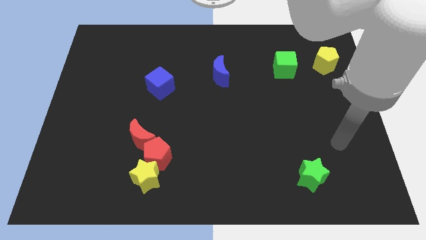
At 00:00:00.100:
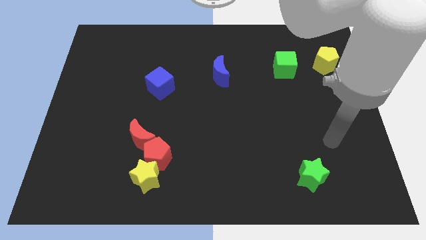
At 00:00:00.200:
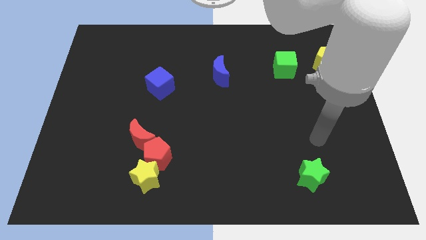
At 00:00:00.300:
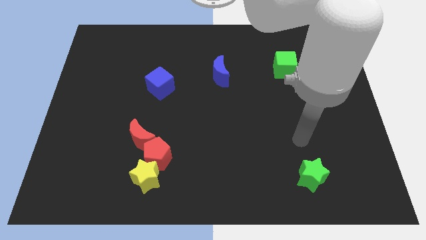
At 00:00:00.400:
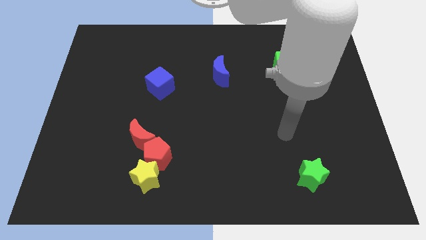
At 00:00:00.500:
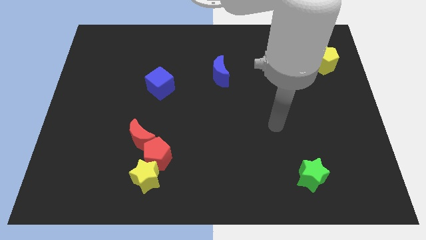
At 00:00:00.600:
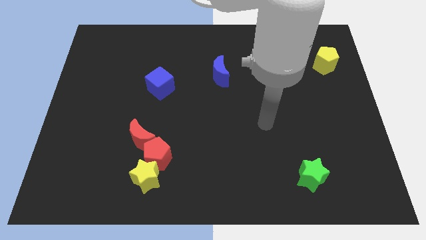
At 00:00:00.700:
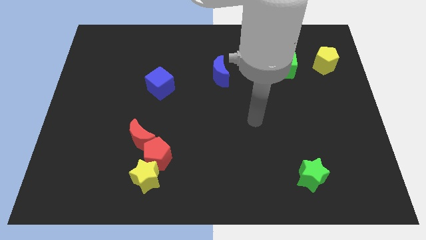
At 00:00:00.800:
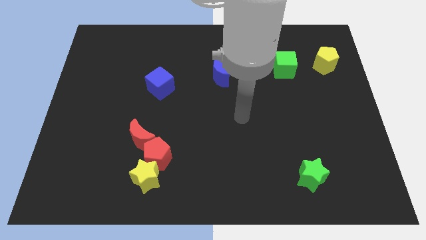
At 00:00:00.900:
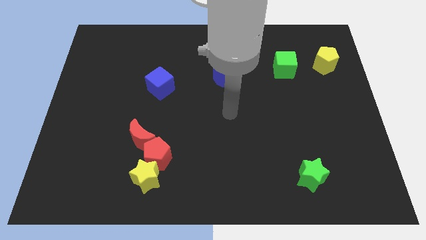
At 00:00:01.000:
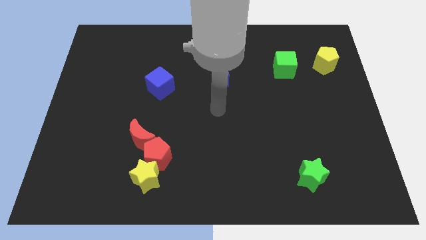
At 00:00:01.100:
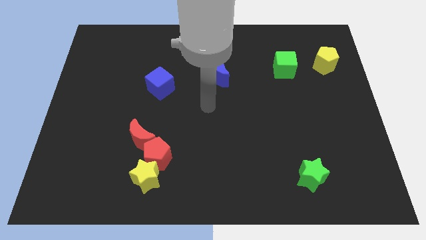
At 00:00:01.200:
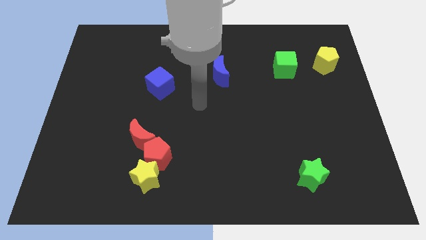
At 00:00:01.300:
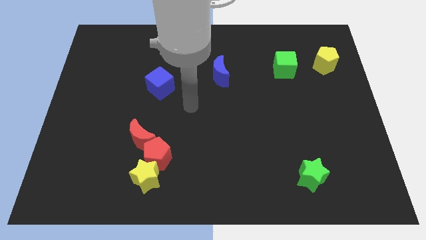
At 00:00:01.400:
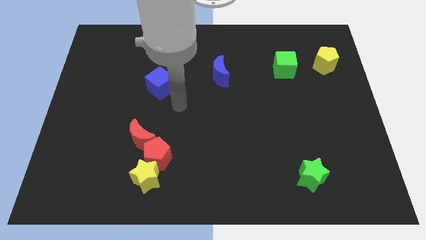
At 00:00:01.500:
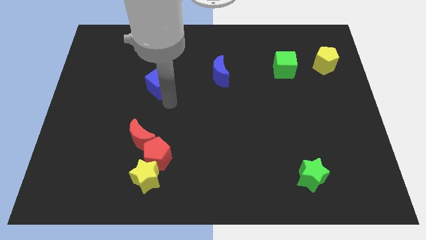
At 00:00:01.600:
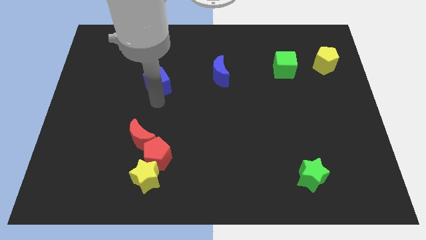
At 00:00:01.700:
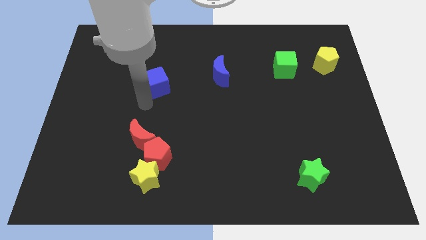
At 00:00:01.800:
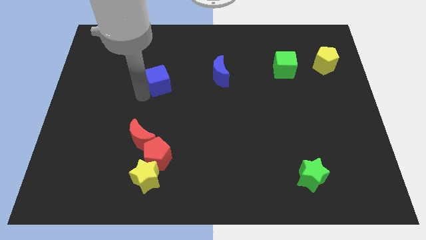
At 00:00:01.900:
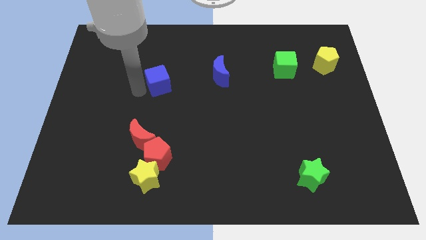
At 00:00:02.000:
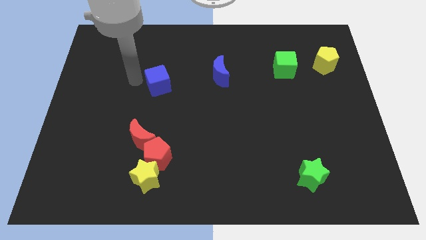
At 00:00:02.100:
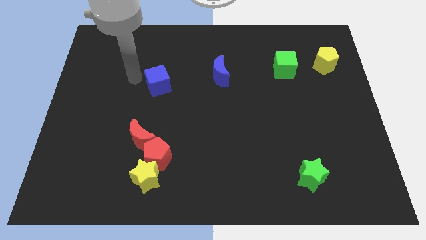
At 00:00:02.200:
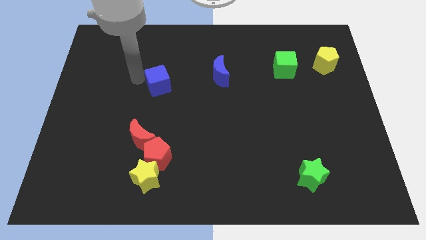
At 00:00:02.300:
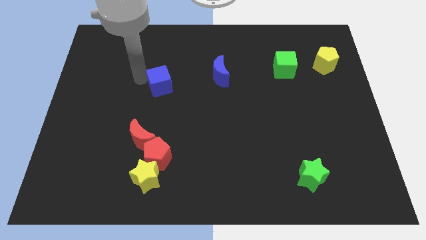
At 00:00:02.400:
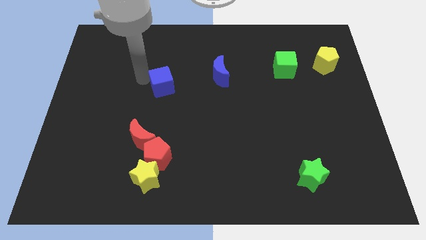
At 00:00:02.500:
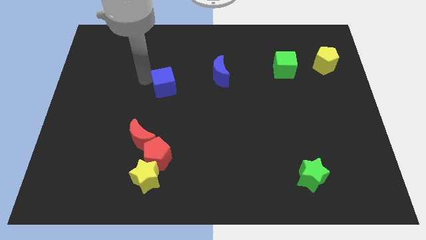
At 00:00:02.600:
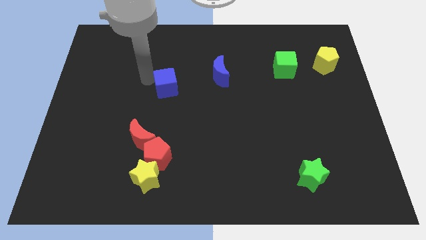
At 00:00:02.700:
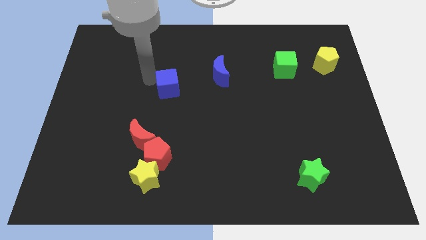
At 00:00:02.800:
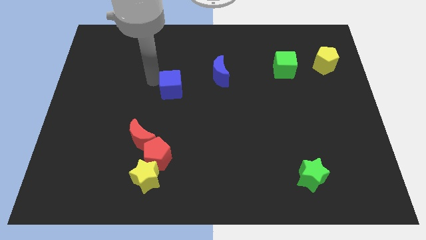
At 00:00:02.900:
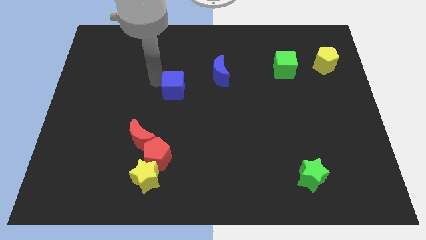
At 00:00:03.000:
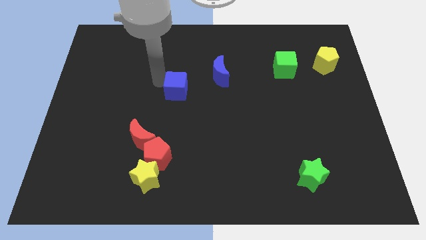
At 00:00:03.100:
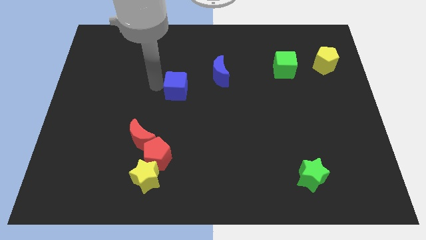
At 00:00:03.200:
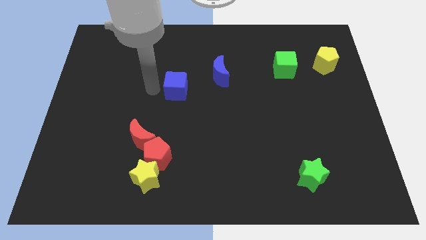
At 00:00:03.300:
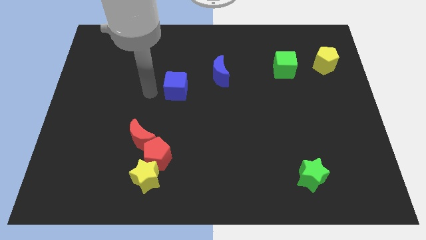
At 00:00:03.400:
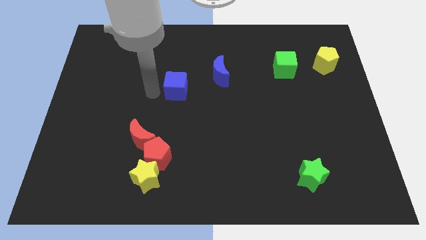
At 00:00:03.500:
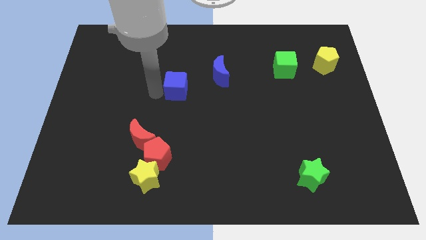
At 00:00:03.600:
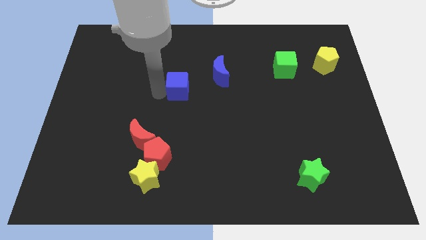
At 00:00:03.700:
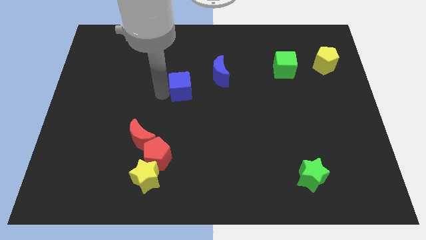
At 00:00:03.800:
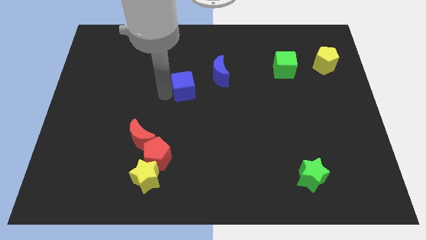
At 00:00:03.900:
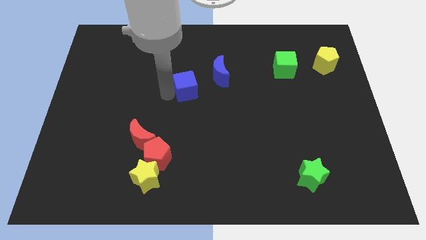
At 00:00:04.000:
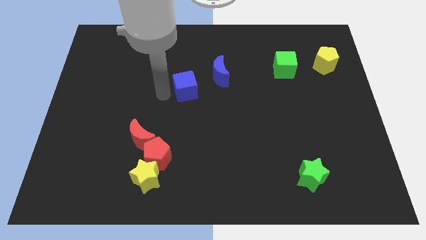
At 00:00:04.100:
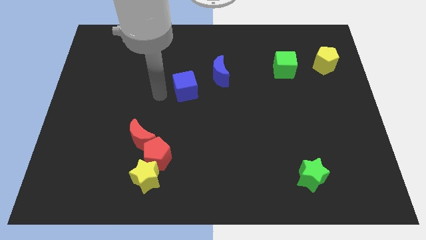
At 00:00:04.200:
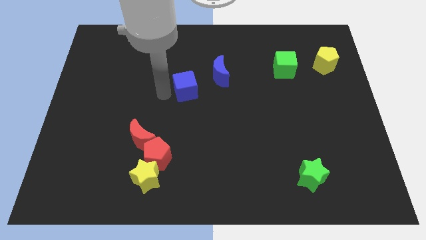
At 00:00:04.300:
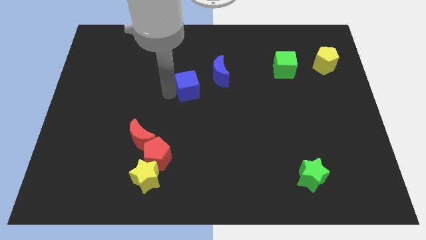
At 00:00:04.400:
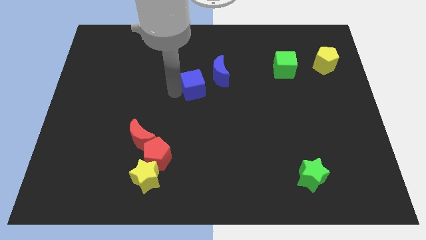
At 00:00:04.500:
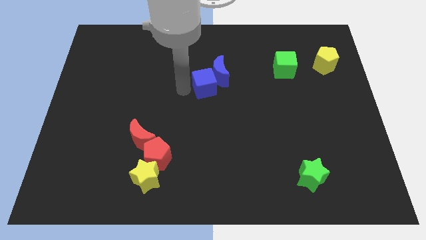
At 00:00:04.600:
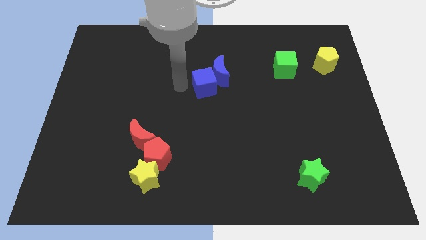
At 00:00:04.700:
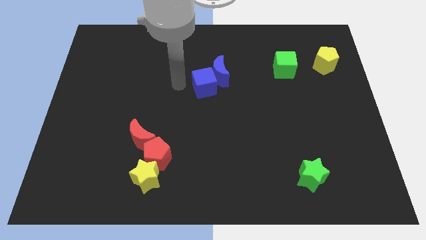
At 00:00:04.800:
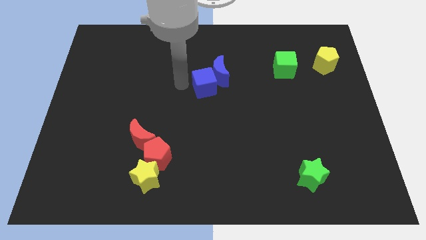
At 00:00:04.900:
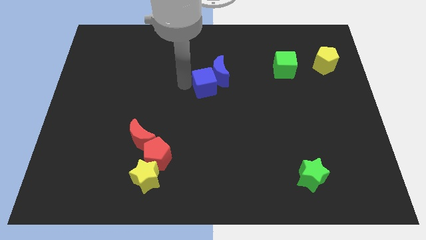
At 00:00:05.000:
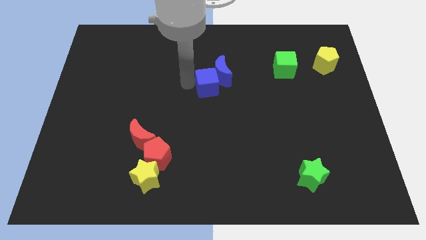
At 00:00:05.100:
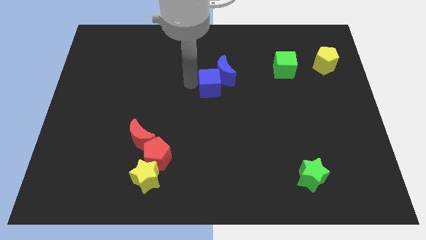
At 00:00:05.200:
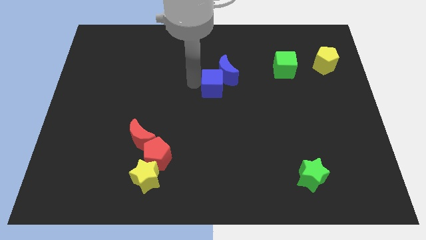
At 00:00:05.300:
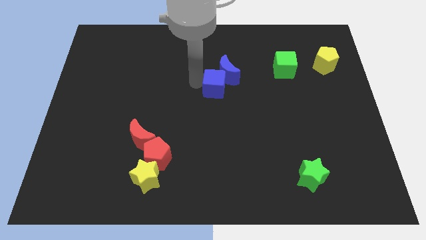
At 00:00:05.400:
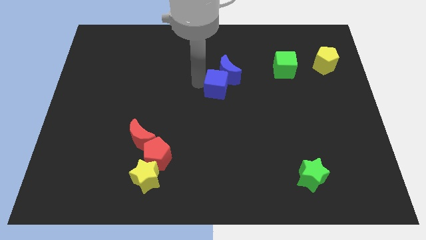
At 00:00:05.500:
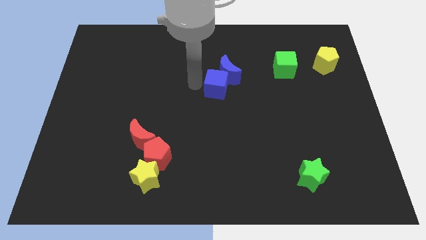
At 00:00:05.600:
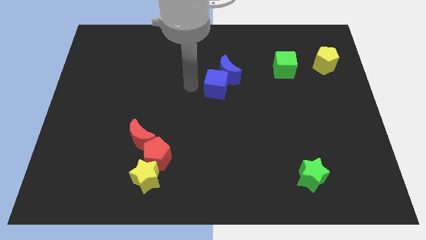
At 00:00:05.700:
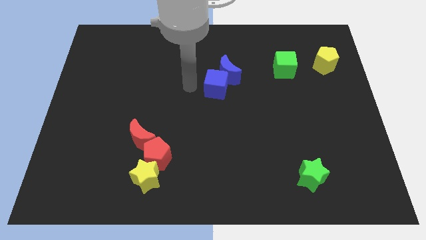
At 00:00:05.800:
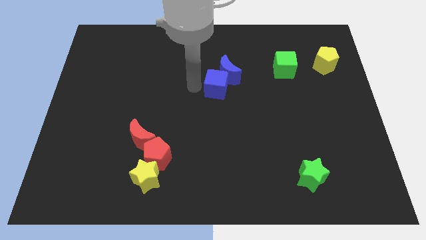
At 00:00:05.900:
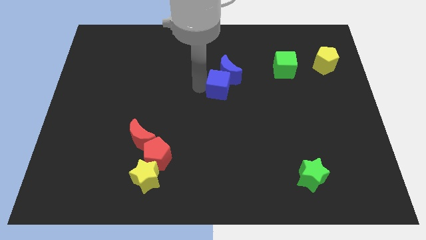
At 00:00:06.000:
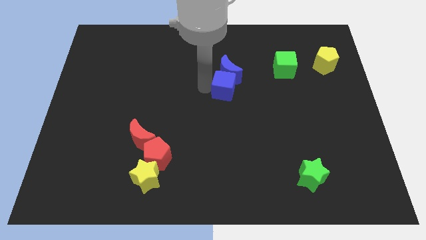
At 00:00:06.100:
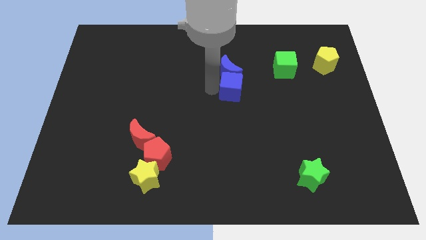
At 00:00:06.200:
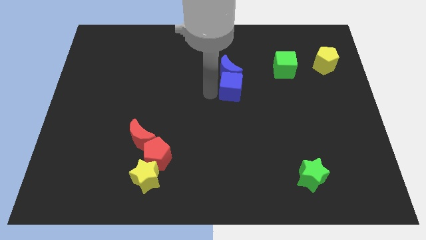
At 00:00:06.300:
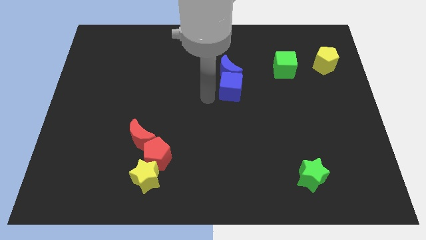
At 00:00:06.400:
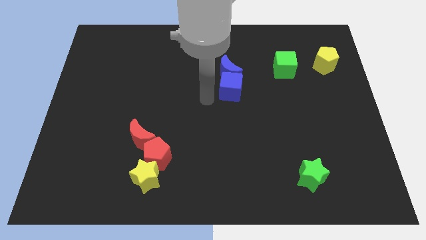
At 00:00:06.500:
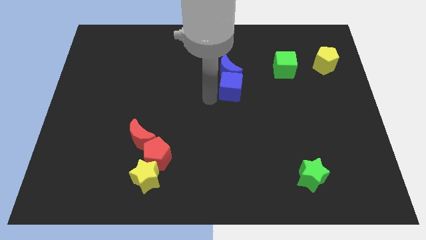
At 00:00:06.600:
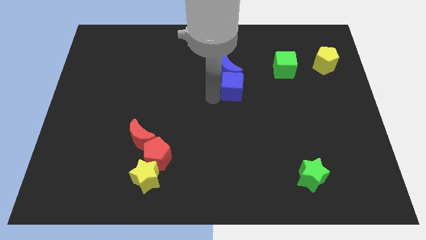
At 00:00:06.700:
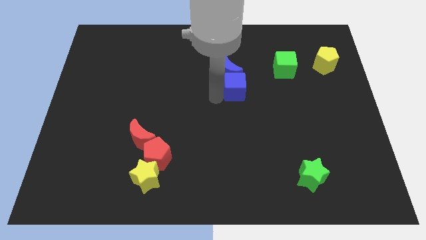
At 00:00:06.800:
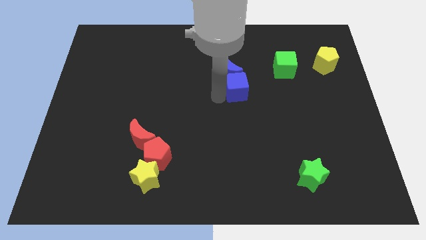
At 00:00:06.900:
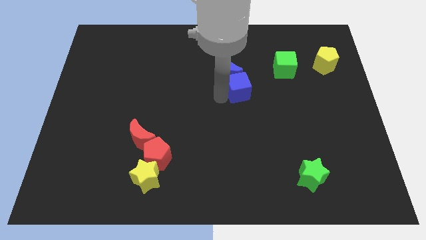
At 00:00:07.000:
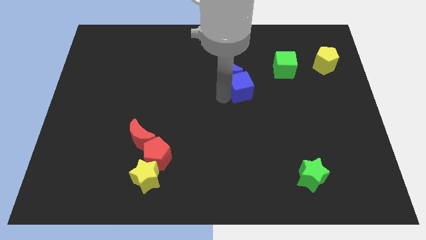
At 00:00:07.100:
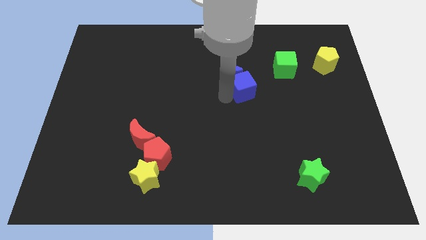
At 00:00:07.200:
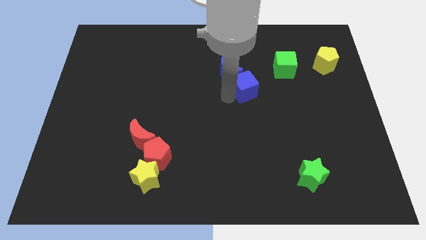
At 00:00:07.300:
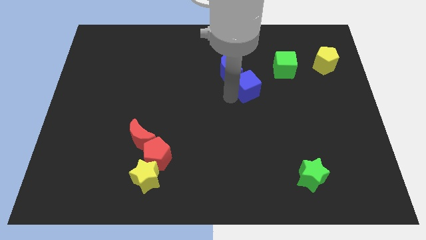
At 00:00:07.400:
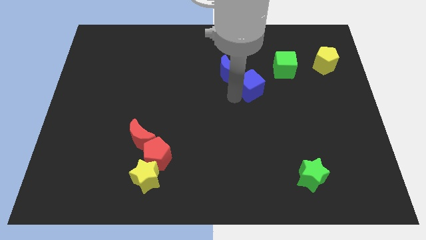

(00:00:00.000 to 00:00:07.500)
move the blue cube to the right of the blue moon
